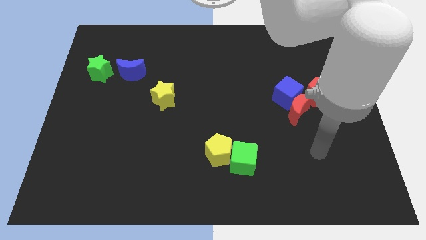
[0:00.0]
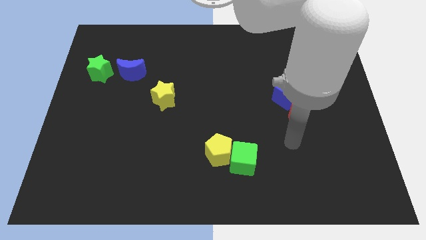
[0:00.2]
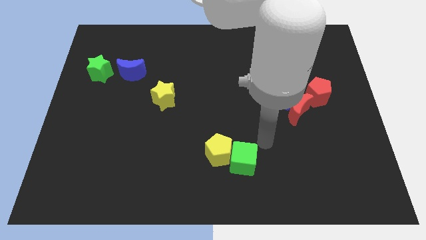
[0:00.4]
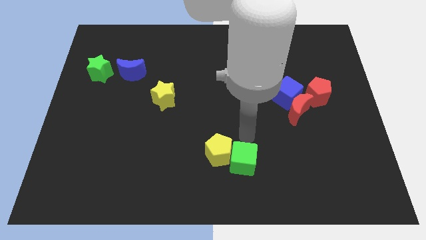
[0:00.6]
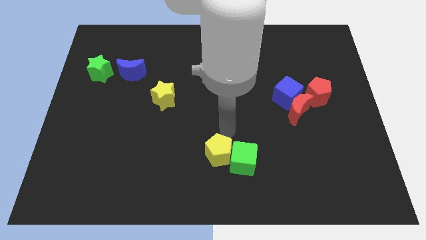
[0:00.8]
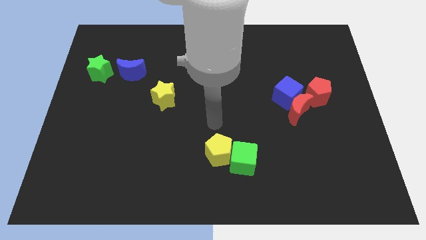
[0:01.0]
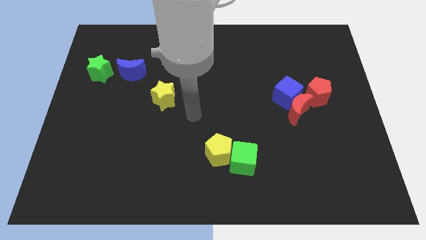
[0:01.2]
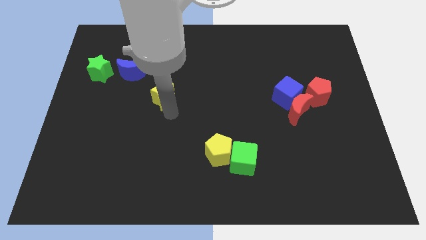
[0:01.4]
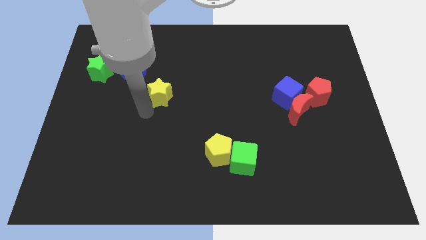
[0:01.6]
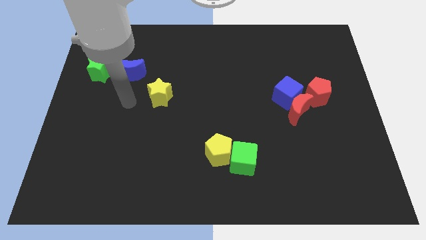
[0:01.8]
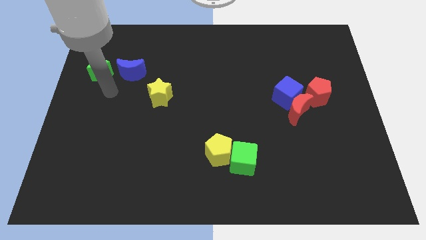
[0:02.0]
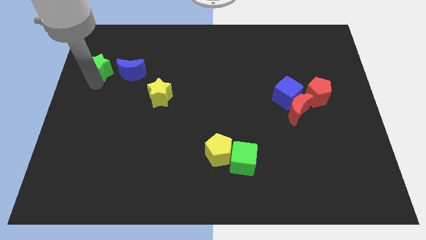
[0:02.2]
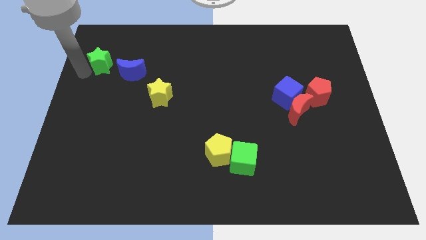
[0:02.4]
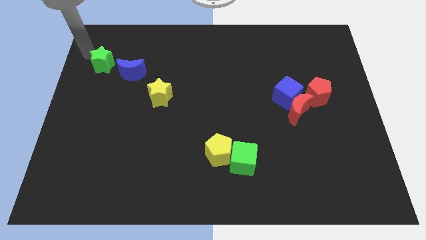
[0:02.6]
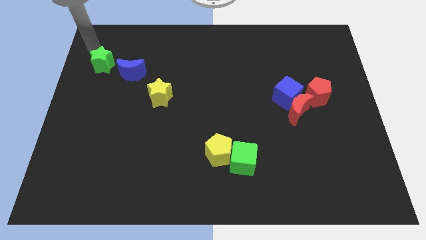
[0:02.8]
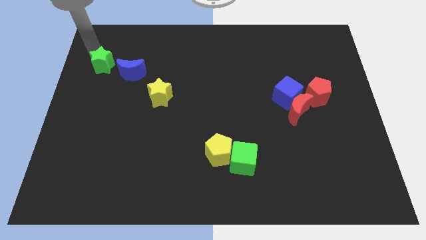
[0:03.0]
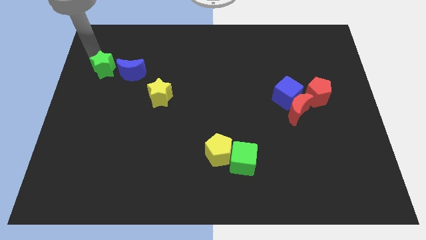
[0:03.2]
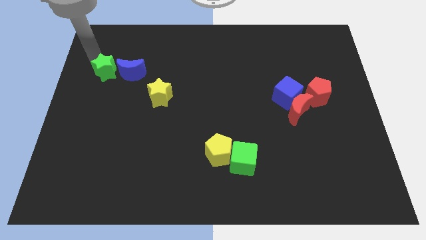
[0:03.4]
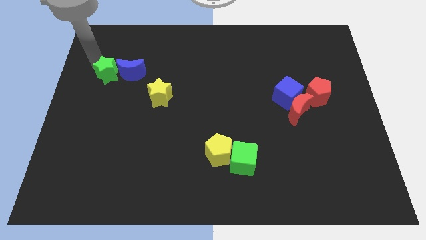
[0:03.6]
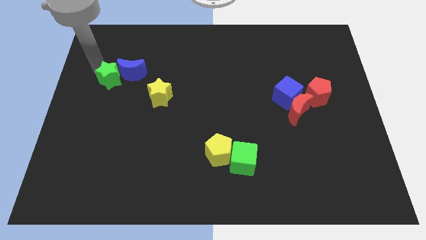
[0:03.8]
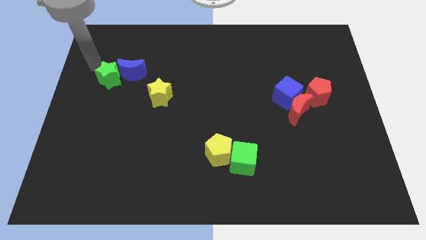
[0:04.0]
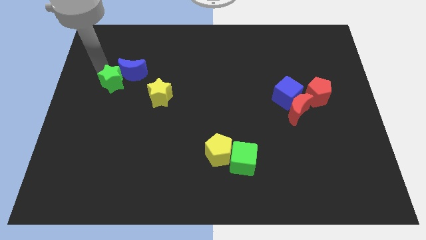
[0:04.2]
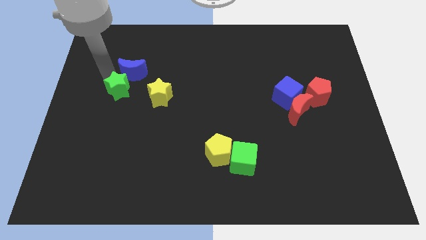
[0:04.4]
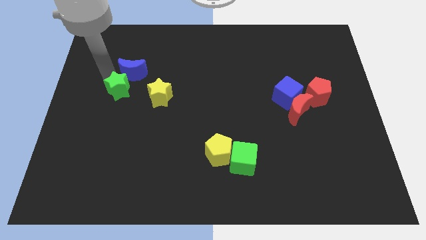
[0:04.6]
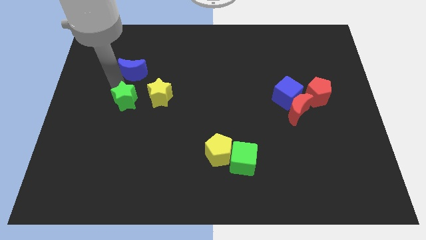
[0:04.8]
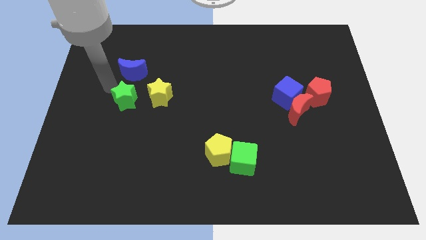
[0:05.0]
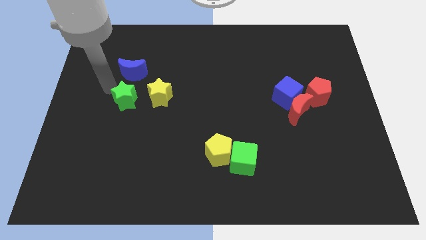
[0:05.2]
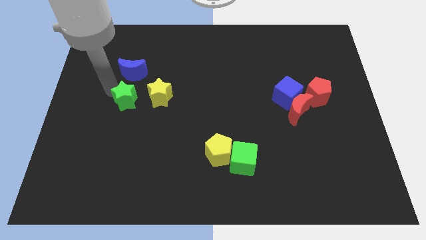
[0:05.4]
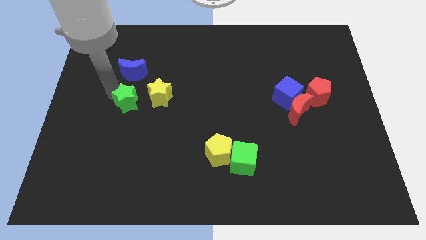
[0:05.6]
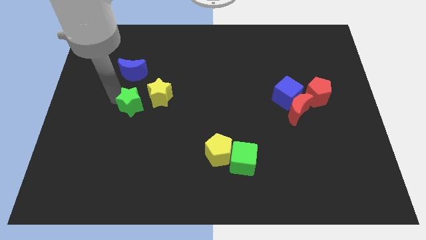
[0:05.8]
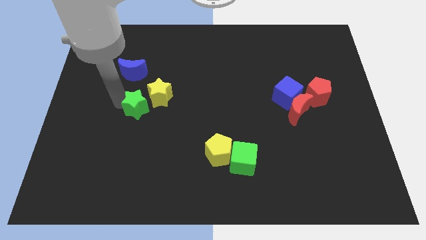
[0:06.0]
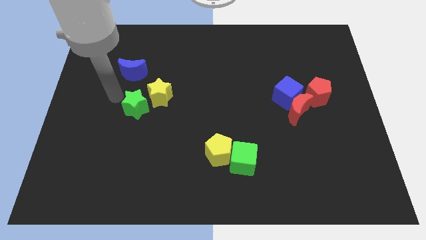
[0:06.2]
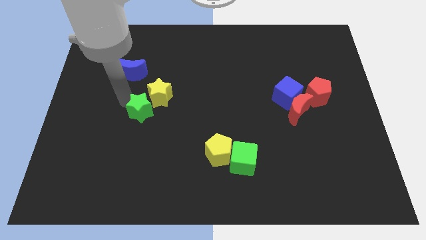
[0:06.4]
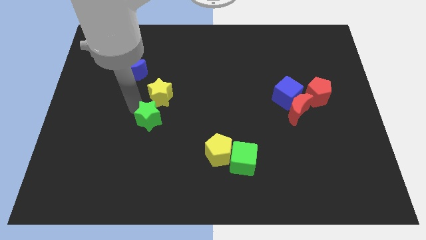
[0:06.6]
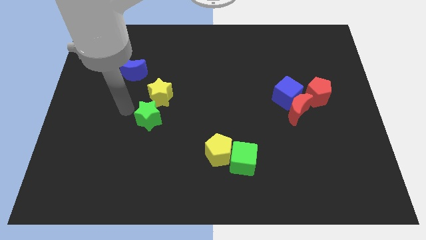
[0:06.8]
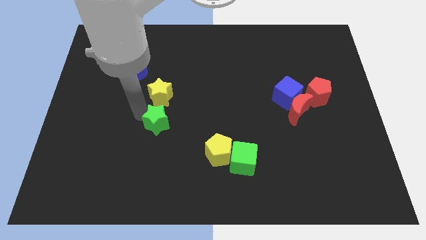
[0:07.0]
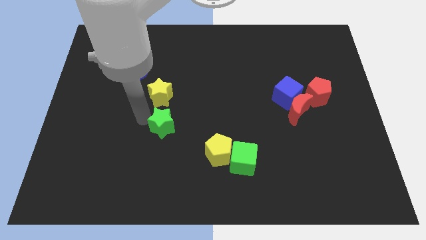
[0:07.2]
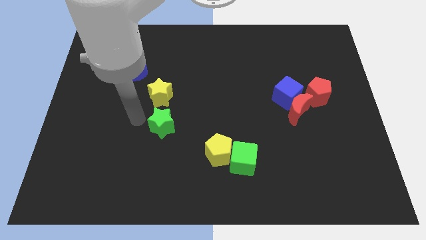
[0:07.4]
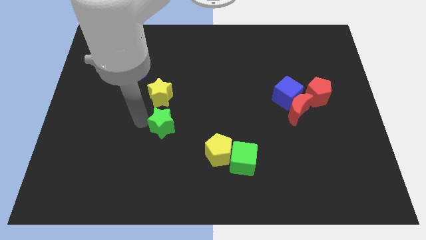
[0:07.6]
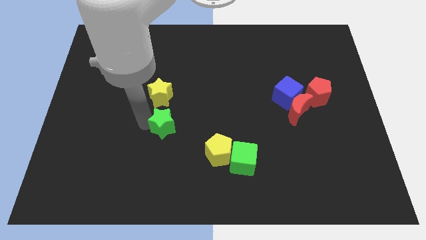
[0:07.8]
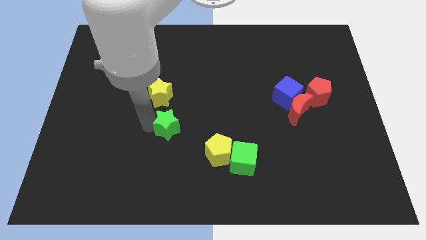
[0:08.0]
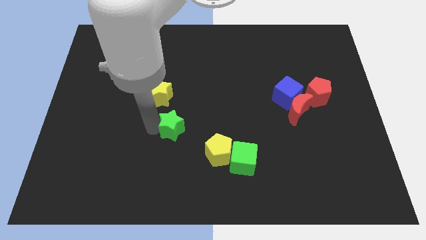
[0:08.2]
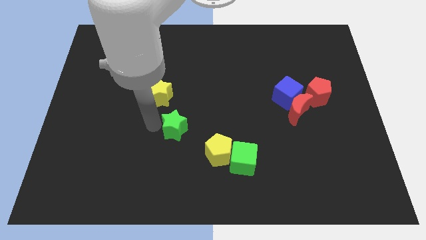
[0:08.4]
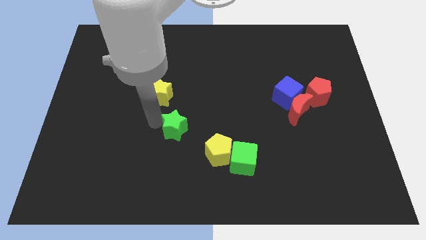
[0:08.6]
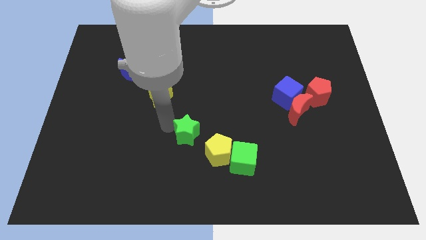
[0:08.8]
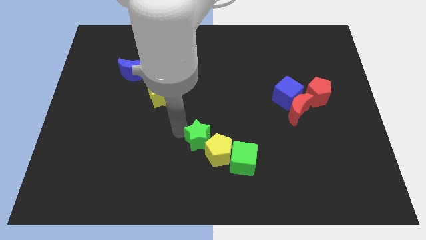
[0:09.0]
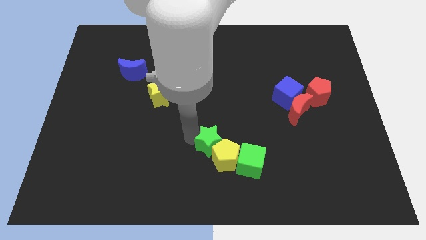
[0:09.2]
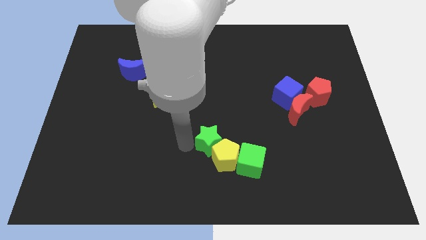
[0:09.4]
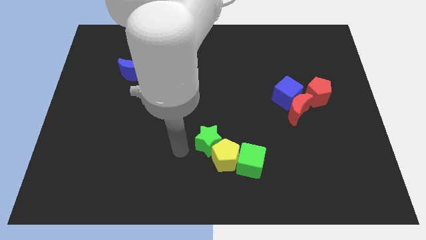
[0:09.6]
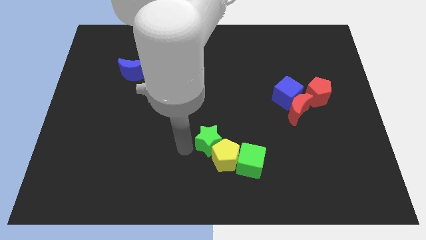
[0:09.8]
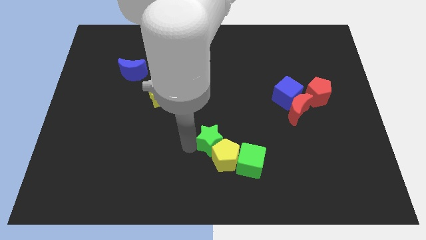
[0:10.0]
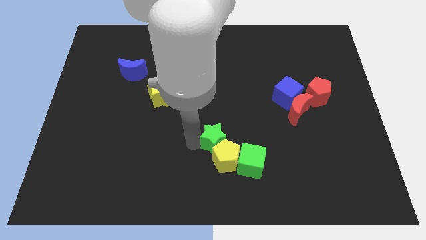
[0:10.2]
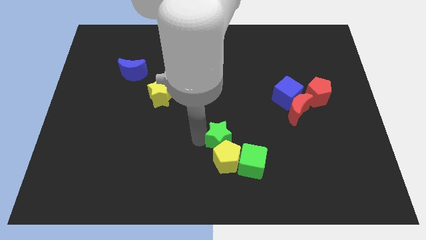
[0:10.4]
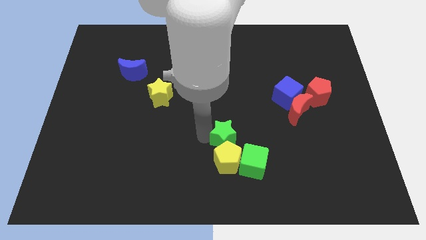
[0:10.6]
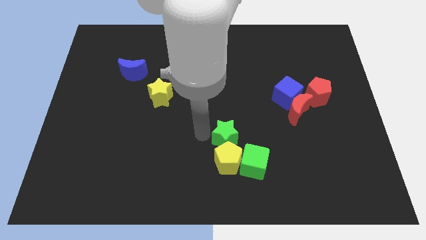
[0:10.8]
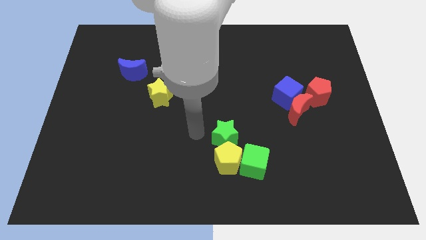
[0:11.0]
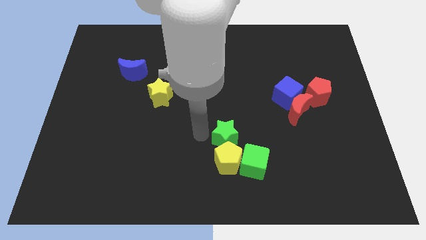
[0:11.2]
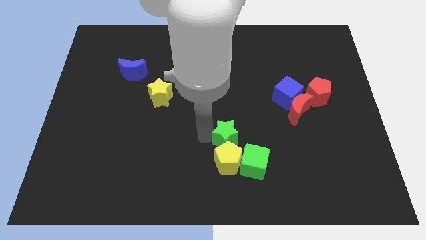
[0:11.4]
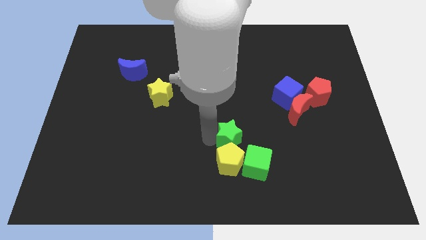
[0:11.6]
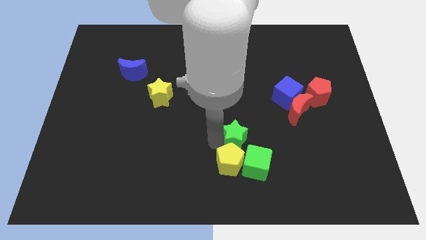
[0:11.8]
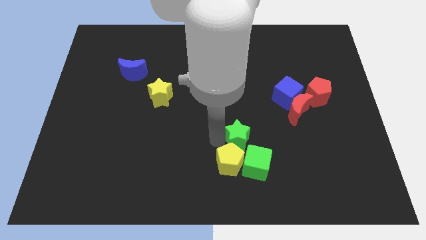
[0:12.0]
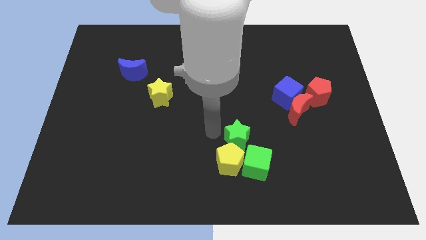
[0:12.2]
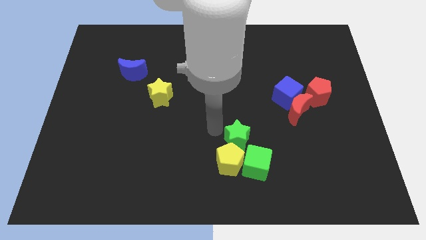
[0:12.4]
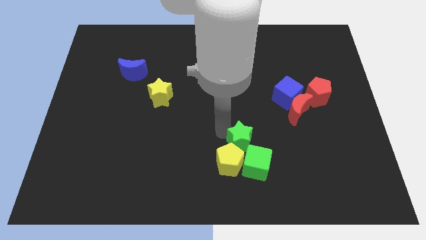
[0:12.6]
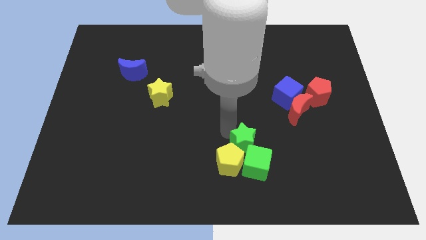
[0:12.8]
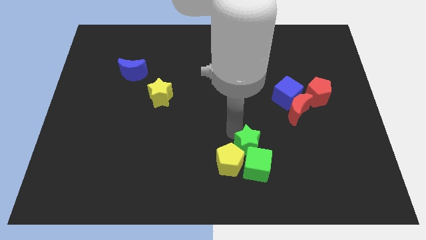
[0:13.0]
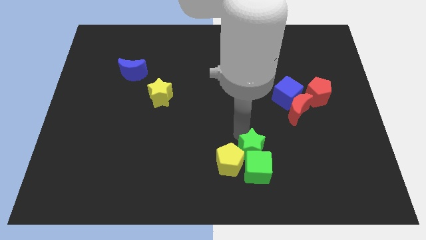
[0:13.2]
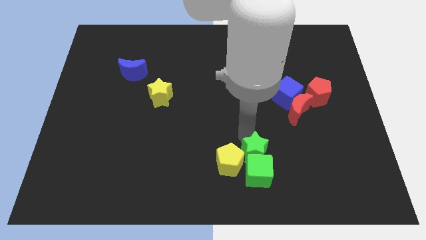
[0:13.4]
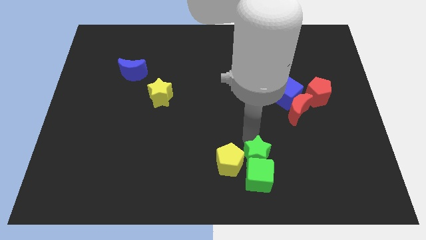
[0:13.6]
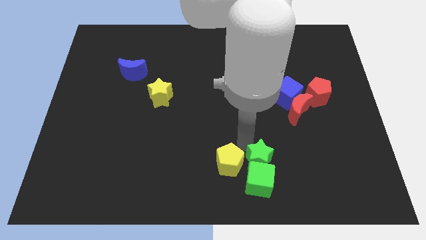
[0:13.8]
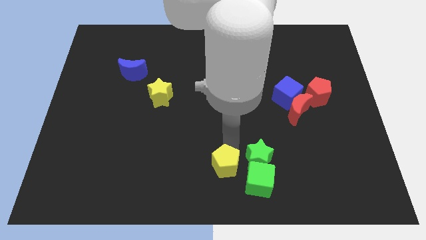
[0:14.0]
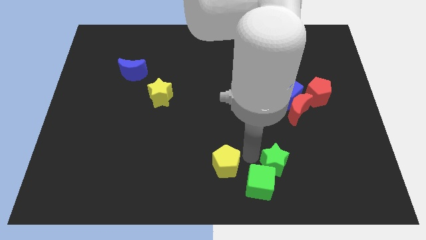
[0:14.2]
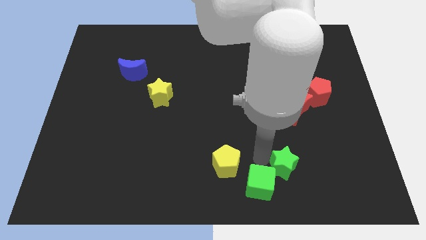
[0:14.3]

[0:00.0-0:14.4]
put the green star right of the green cube
